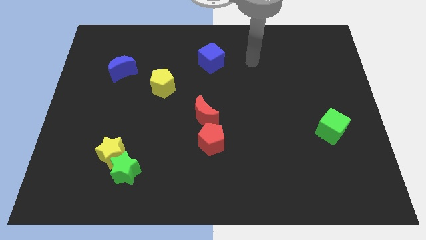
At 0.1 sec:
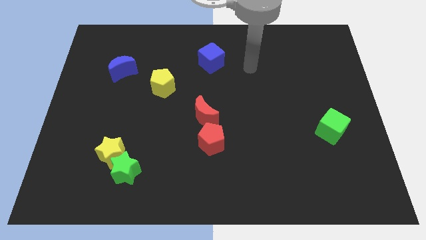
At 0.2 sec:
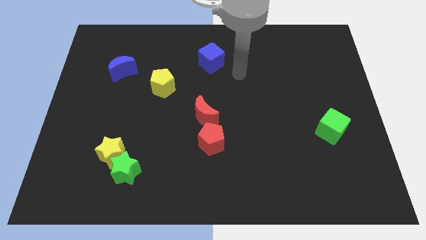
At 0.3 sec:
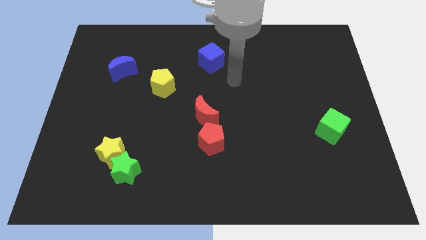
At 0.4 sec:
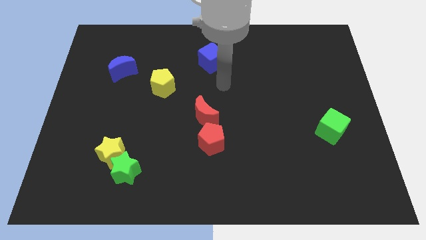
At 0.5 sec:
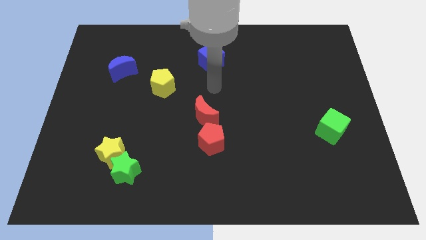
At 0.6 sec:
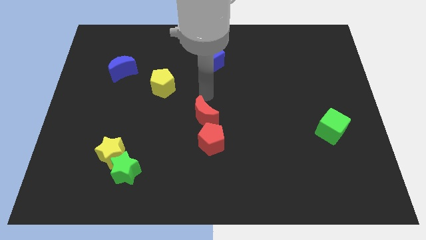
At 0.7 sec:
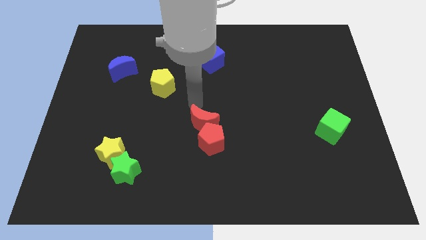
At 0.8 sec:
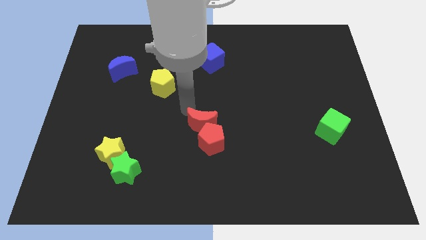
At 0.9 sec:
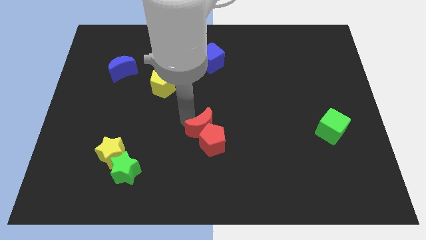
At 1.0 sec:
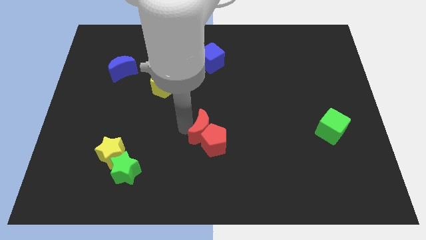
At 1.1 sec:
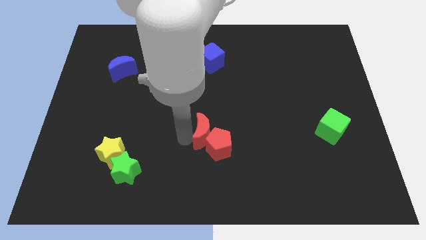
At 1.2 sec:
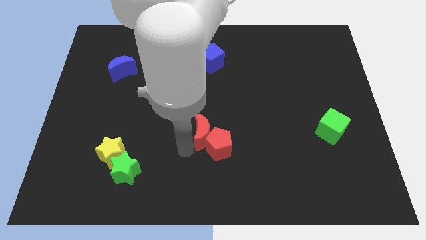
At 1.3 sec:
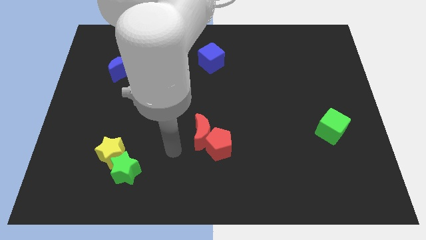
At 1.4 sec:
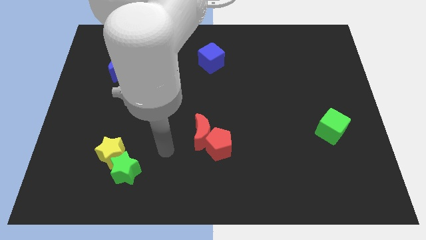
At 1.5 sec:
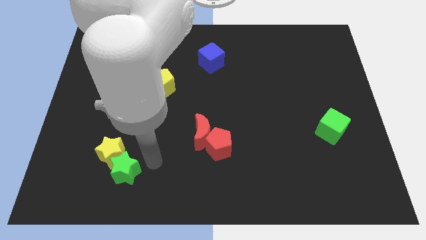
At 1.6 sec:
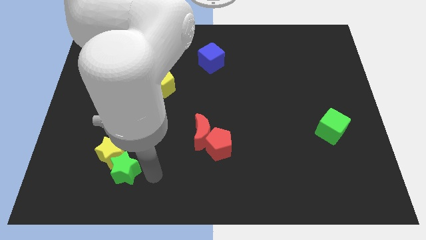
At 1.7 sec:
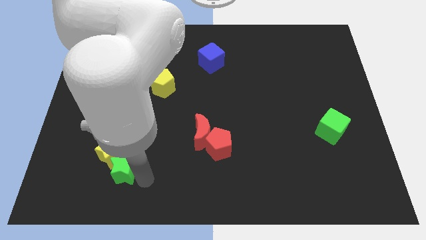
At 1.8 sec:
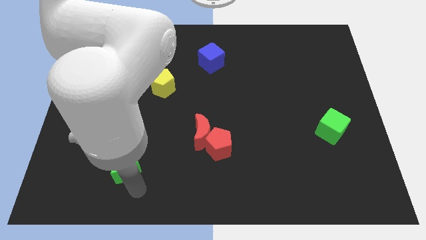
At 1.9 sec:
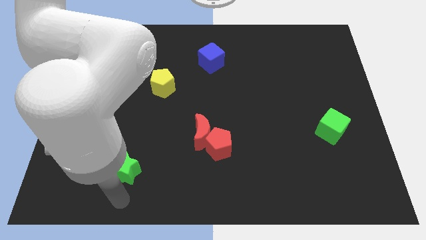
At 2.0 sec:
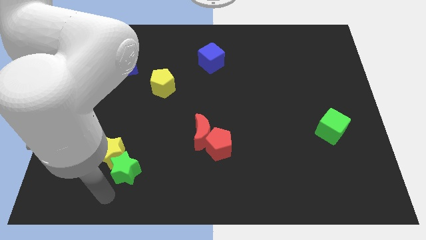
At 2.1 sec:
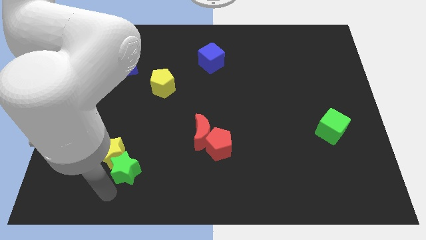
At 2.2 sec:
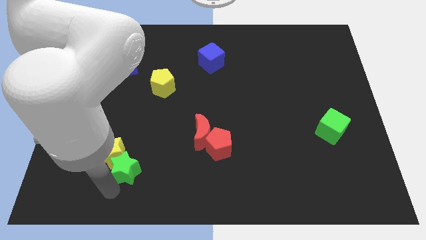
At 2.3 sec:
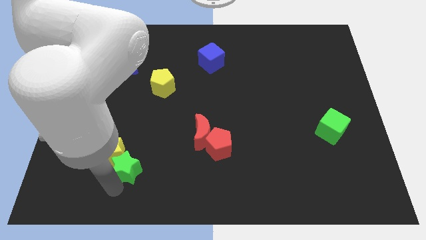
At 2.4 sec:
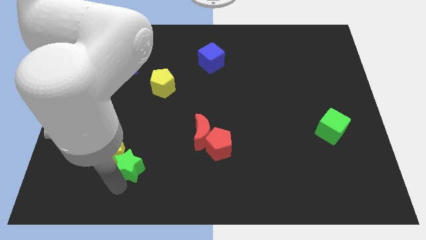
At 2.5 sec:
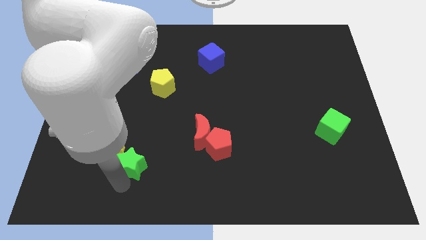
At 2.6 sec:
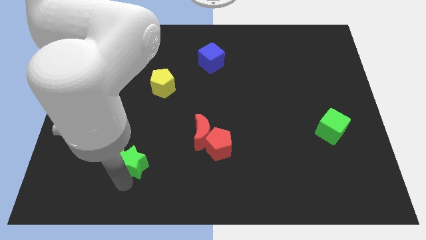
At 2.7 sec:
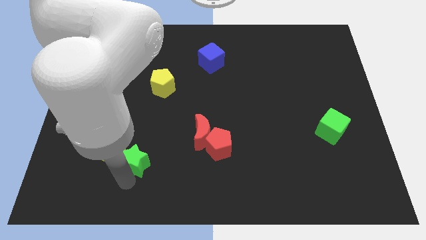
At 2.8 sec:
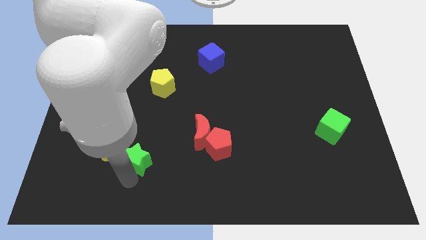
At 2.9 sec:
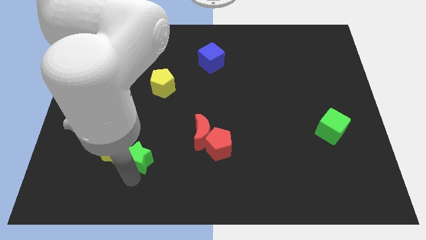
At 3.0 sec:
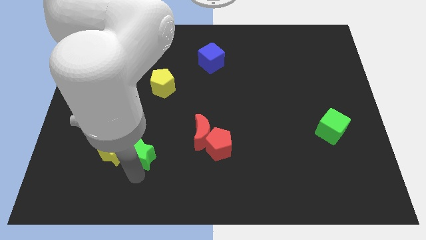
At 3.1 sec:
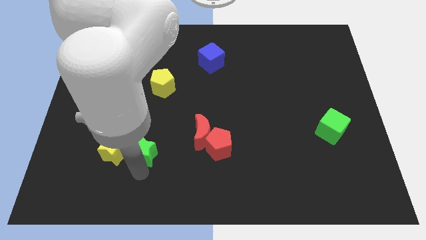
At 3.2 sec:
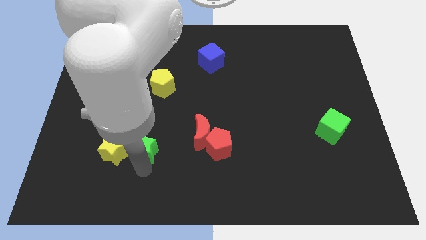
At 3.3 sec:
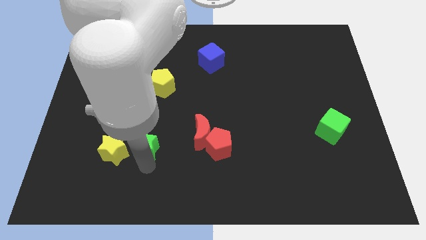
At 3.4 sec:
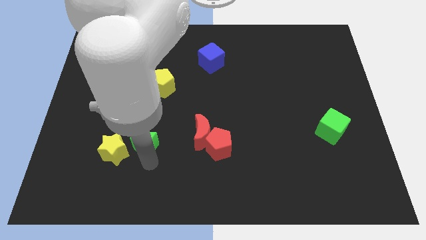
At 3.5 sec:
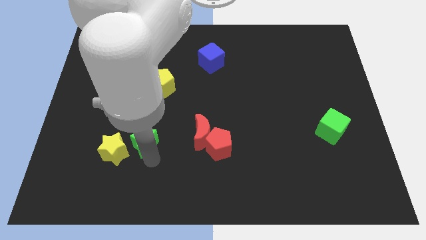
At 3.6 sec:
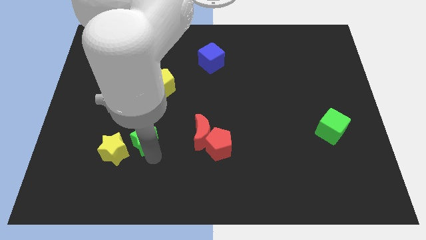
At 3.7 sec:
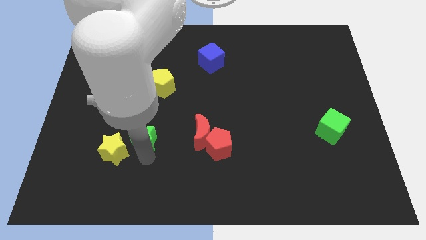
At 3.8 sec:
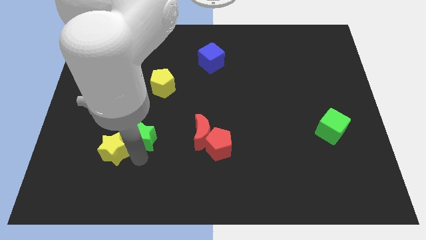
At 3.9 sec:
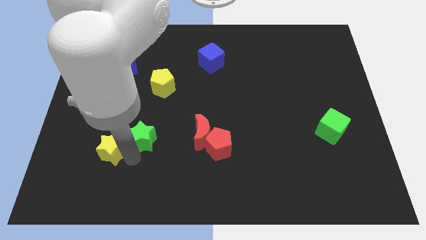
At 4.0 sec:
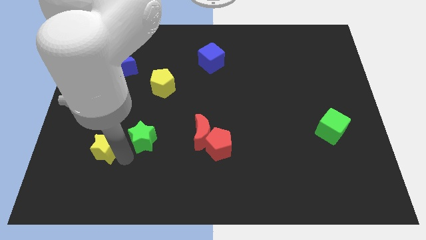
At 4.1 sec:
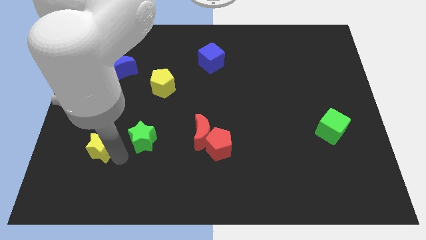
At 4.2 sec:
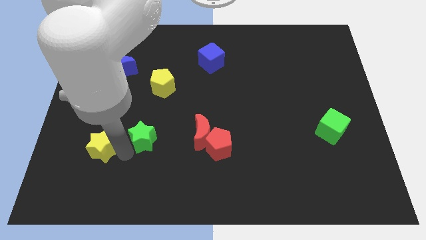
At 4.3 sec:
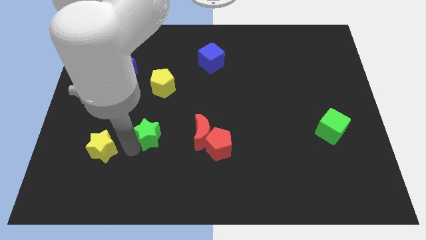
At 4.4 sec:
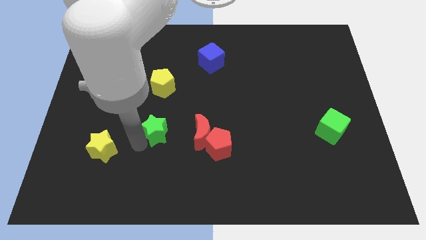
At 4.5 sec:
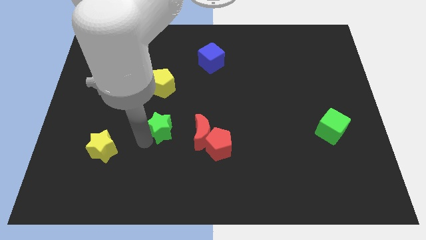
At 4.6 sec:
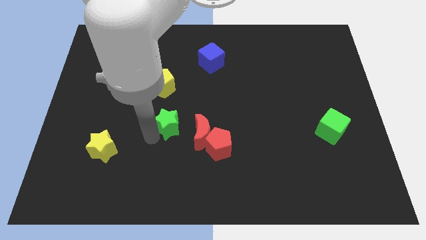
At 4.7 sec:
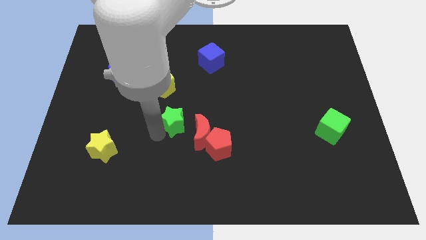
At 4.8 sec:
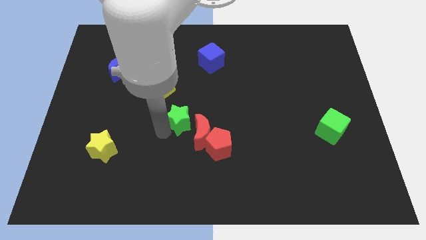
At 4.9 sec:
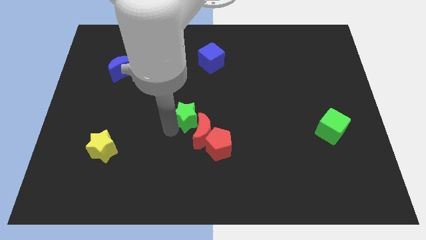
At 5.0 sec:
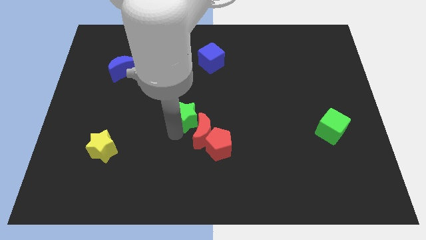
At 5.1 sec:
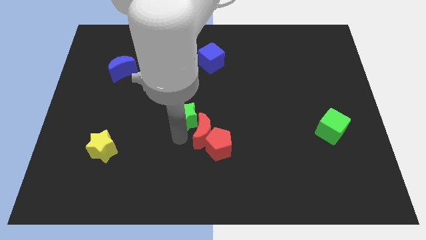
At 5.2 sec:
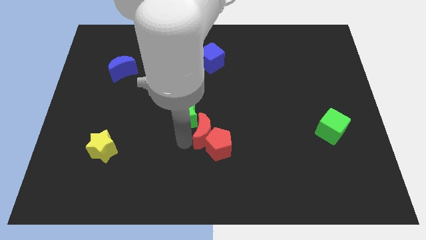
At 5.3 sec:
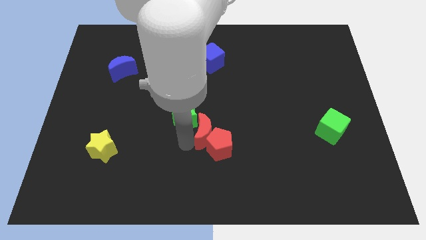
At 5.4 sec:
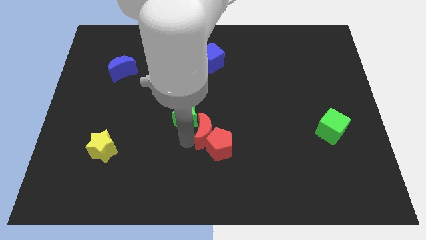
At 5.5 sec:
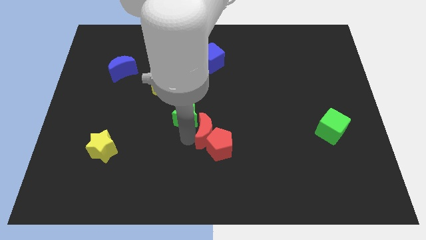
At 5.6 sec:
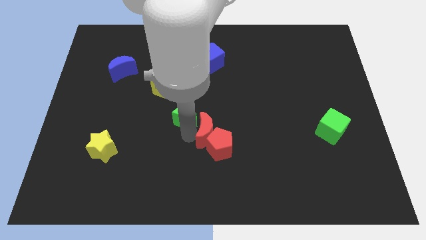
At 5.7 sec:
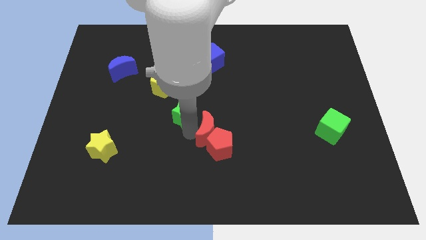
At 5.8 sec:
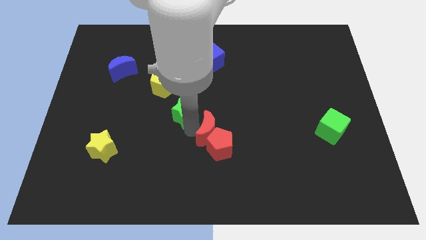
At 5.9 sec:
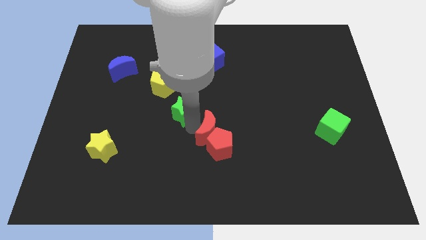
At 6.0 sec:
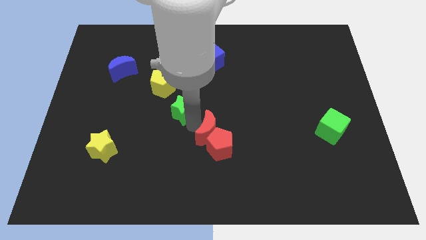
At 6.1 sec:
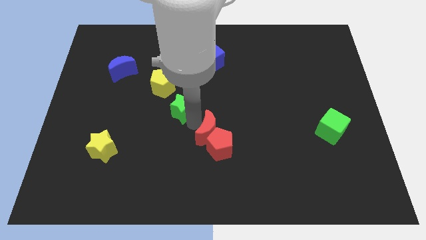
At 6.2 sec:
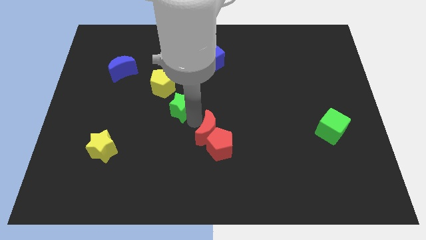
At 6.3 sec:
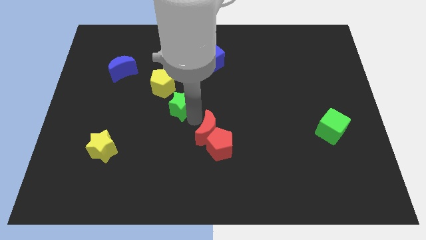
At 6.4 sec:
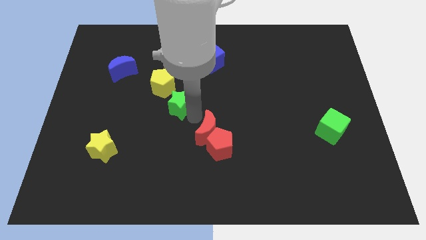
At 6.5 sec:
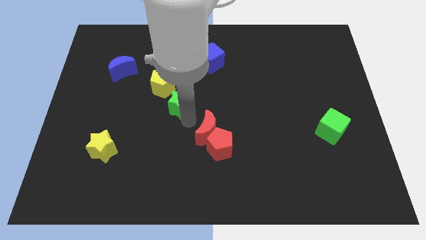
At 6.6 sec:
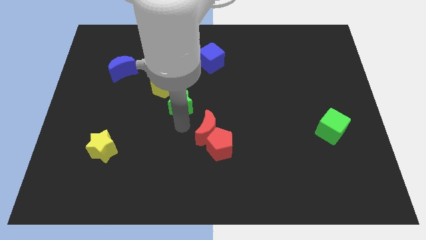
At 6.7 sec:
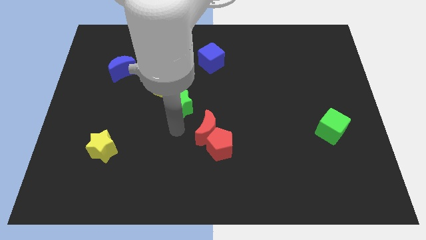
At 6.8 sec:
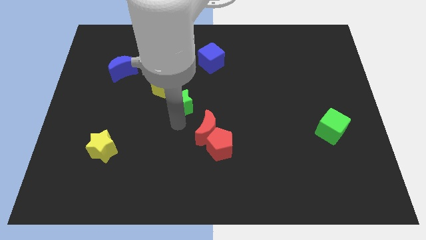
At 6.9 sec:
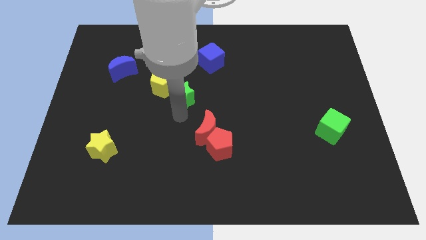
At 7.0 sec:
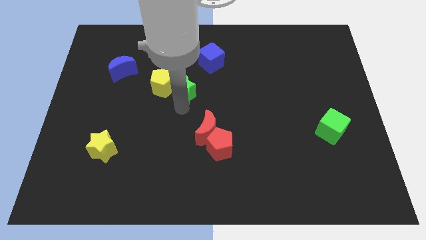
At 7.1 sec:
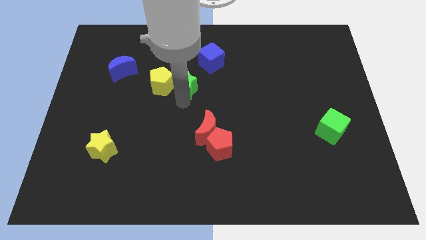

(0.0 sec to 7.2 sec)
put the green star to the bottom left of the blue cube

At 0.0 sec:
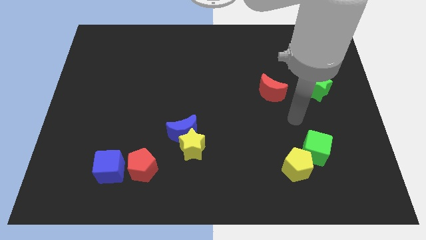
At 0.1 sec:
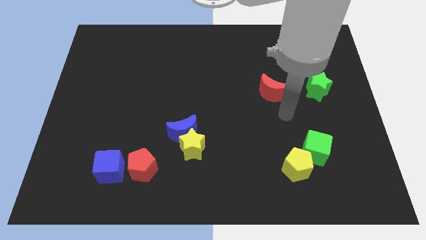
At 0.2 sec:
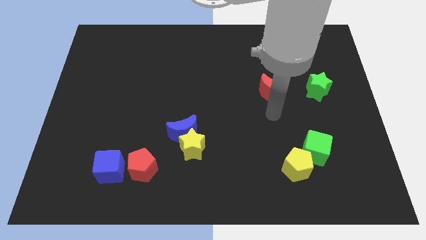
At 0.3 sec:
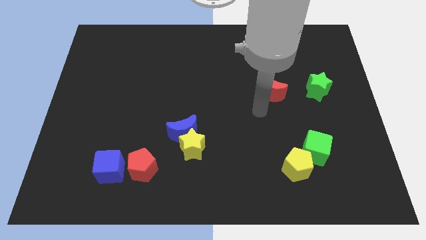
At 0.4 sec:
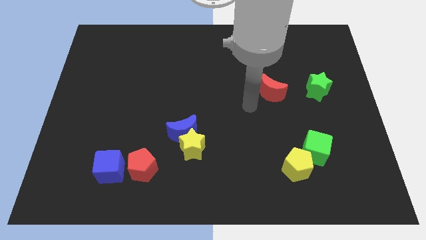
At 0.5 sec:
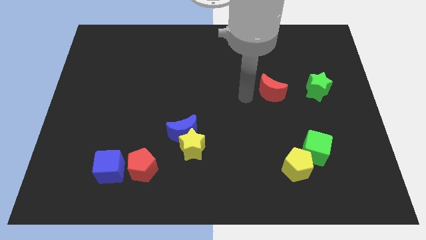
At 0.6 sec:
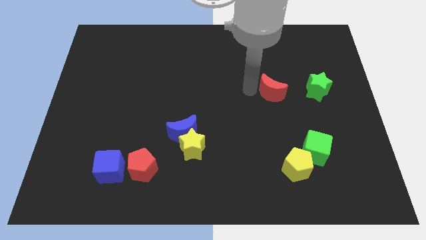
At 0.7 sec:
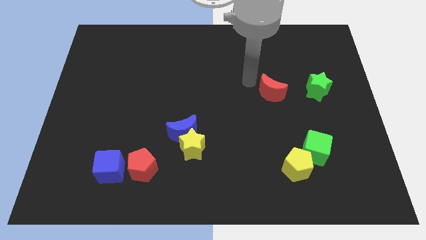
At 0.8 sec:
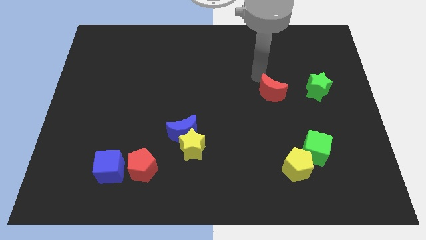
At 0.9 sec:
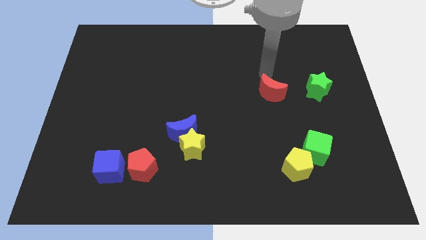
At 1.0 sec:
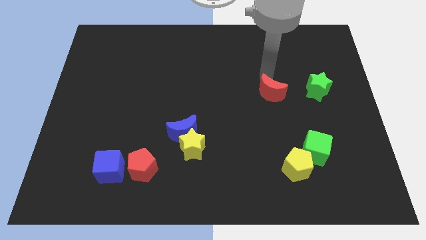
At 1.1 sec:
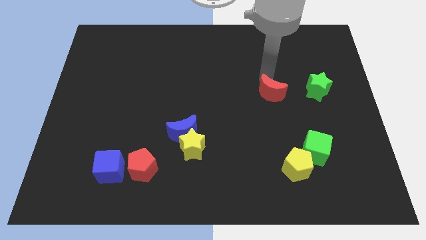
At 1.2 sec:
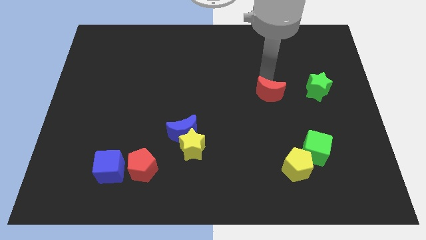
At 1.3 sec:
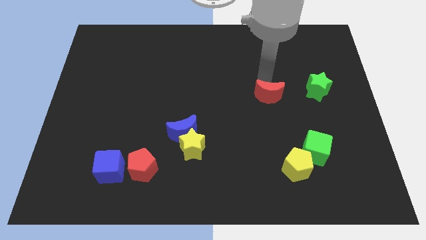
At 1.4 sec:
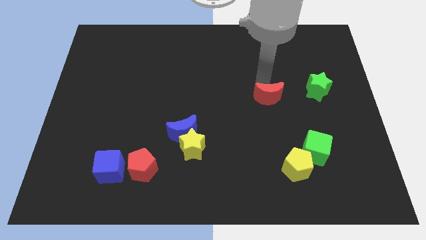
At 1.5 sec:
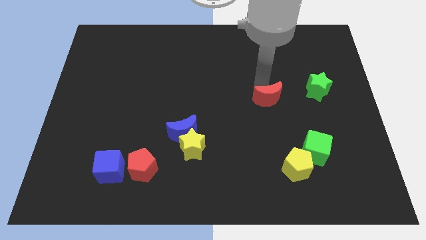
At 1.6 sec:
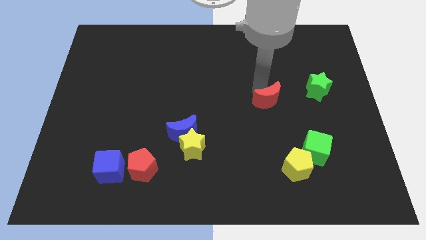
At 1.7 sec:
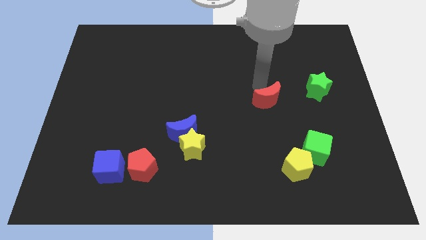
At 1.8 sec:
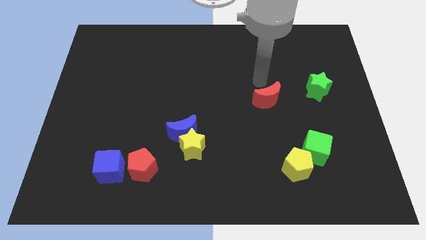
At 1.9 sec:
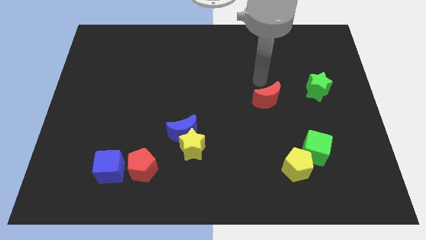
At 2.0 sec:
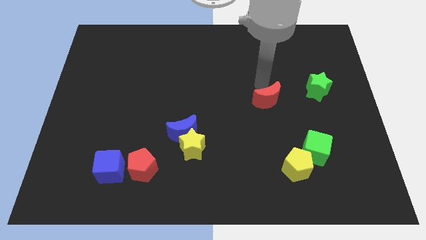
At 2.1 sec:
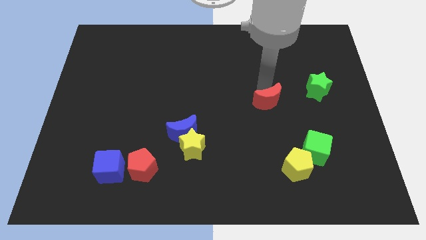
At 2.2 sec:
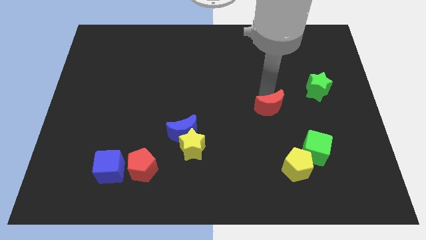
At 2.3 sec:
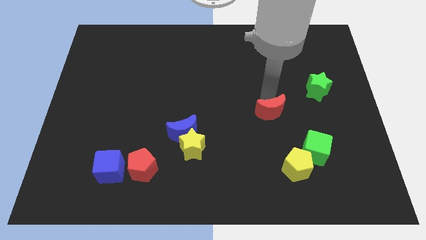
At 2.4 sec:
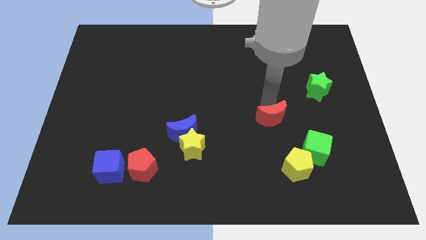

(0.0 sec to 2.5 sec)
slide the red moon to the top left side of the green cube
